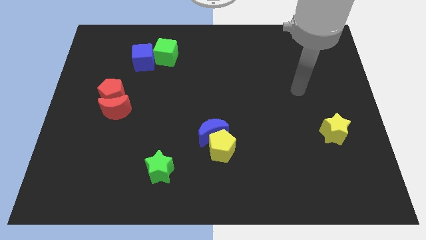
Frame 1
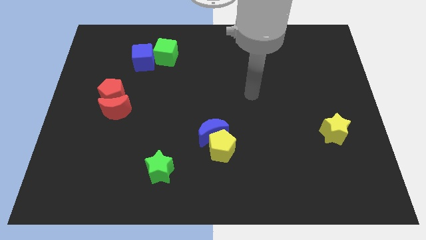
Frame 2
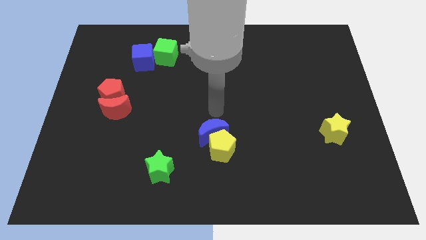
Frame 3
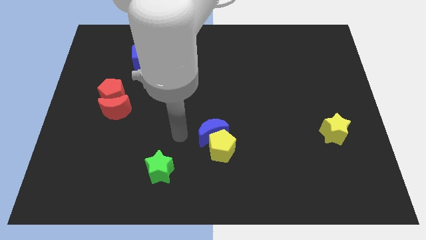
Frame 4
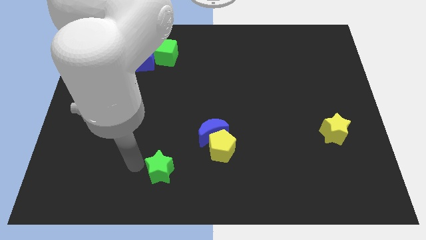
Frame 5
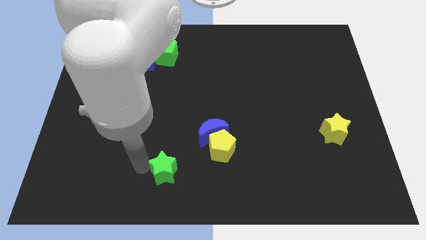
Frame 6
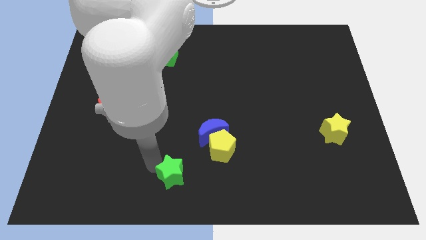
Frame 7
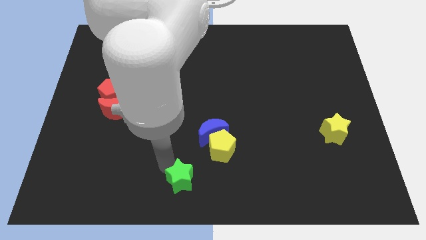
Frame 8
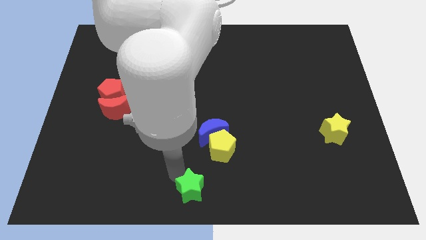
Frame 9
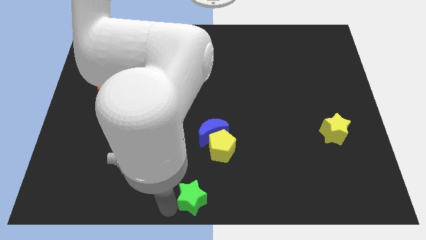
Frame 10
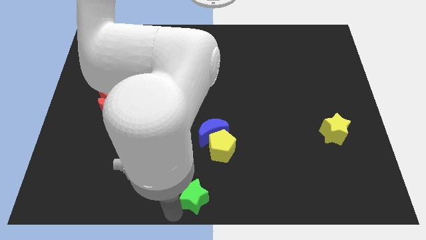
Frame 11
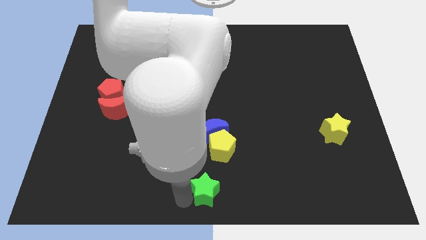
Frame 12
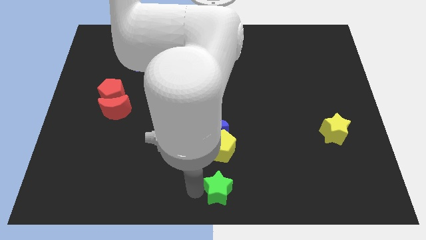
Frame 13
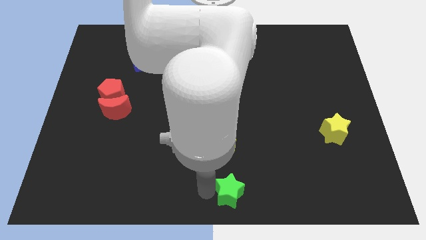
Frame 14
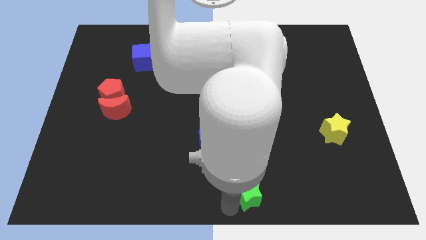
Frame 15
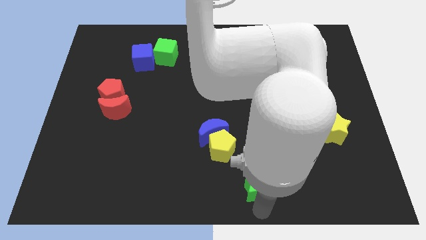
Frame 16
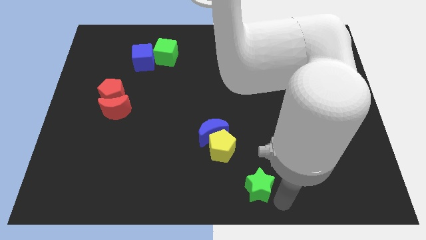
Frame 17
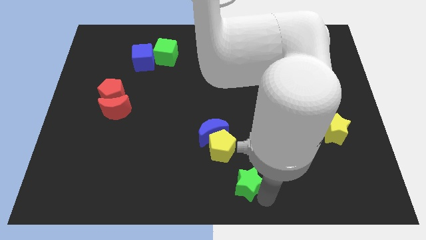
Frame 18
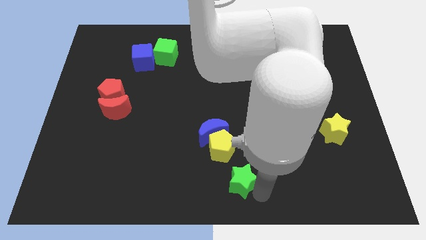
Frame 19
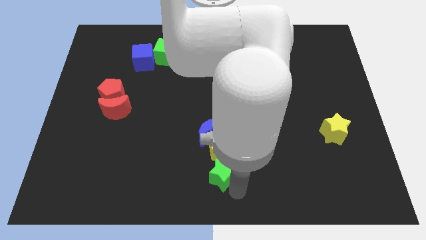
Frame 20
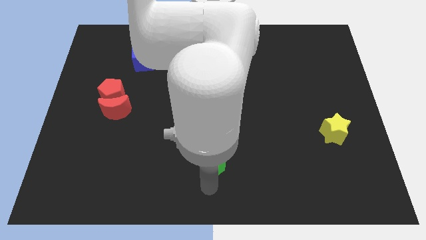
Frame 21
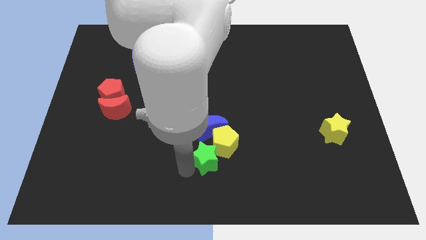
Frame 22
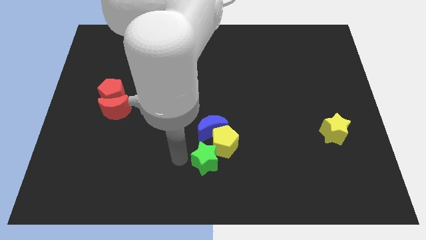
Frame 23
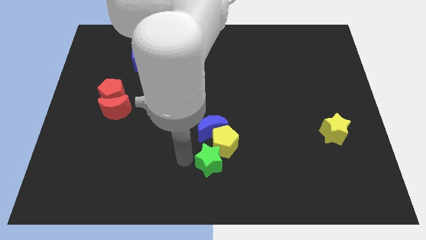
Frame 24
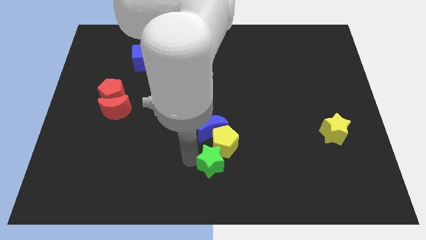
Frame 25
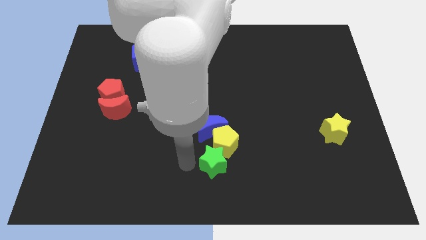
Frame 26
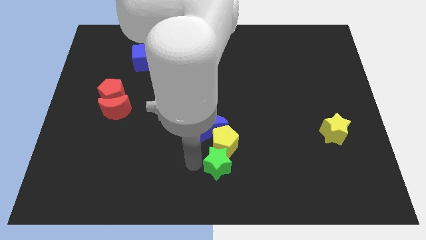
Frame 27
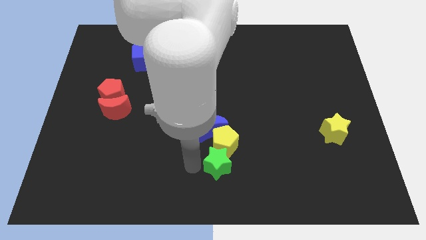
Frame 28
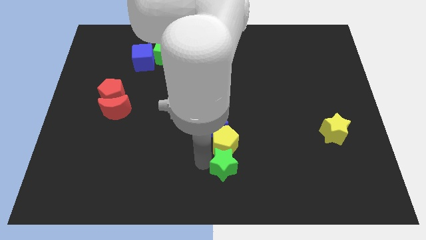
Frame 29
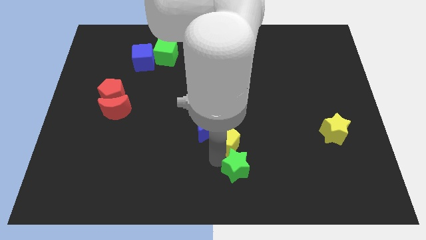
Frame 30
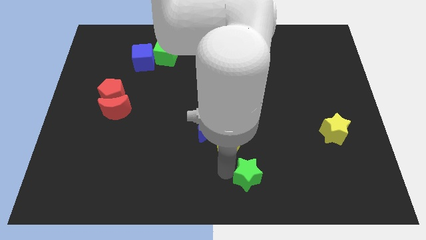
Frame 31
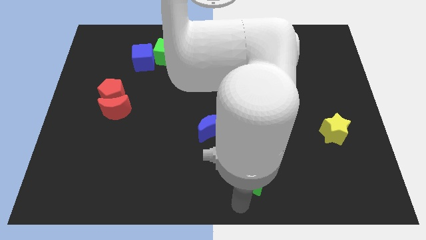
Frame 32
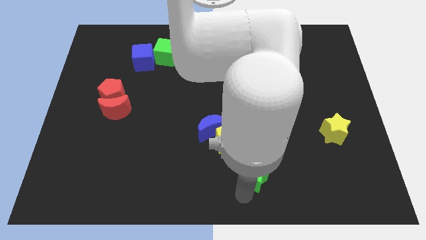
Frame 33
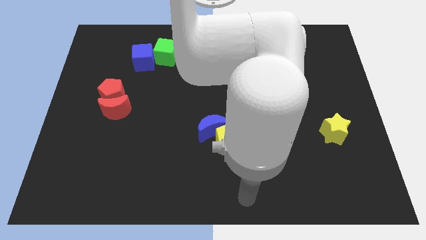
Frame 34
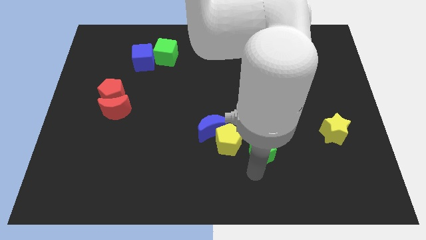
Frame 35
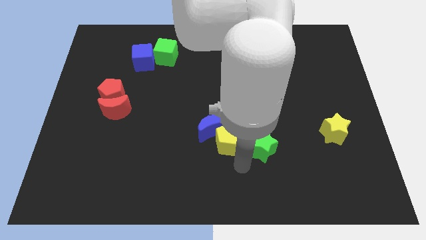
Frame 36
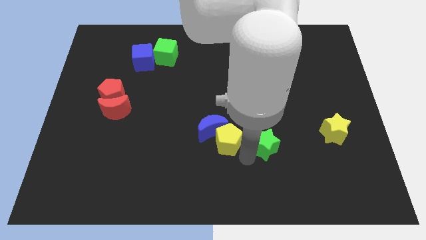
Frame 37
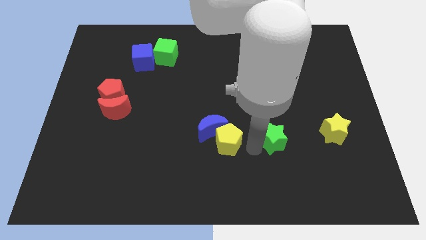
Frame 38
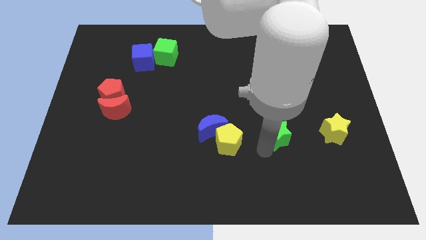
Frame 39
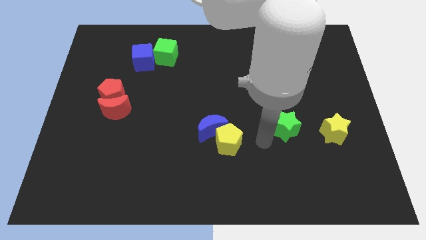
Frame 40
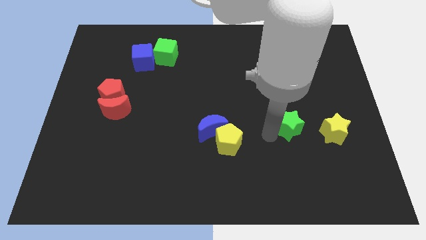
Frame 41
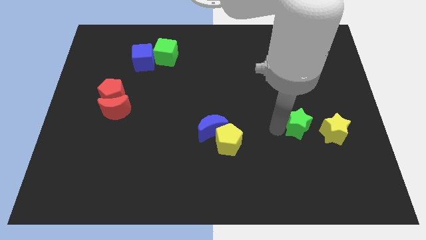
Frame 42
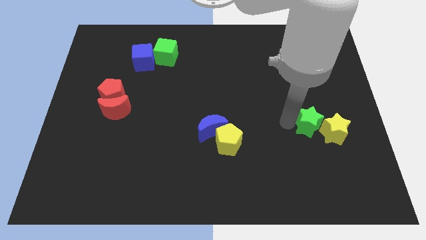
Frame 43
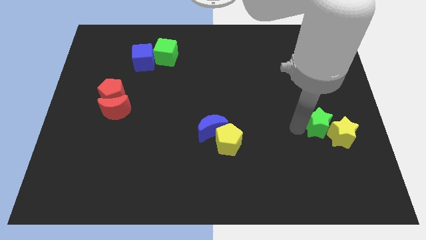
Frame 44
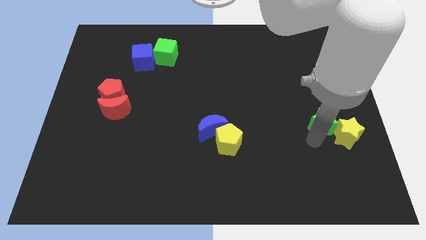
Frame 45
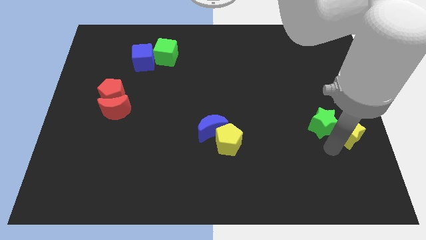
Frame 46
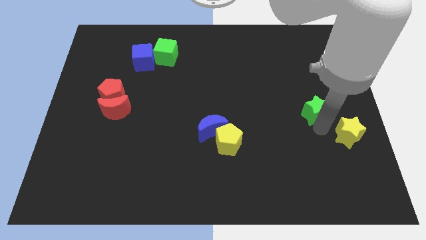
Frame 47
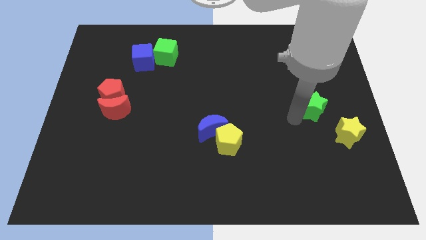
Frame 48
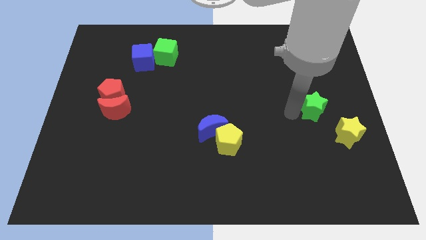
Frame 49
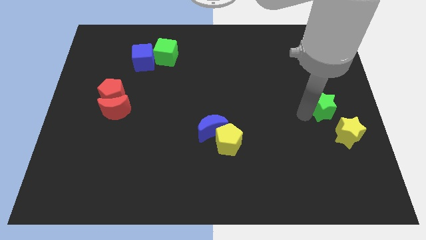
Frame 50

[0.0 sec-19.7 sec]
move the green star to the right side of the board

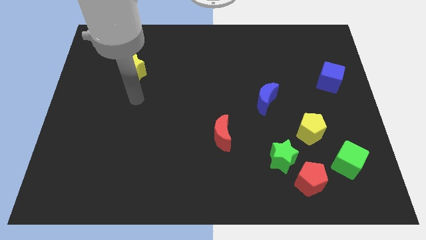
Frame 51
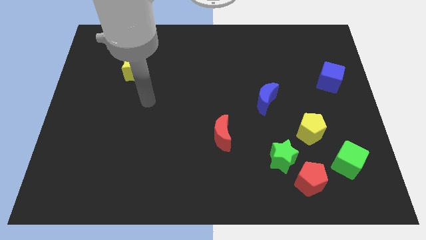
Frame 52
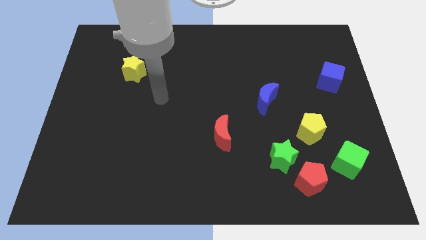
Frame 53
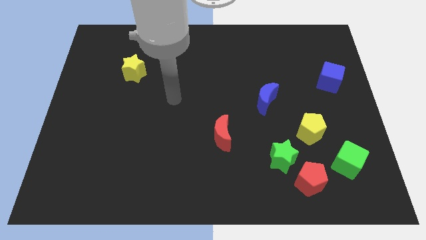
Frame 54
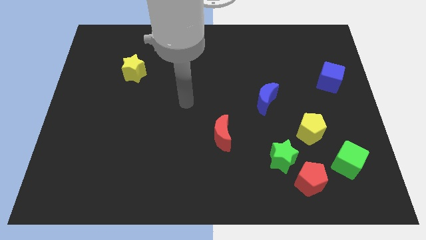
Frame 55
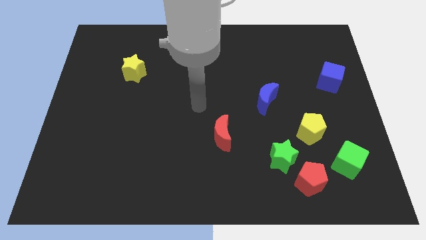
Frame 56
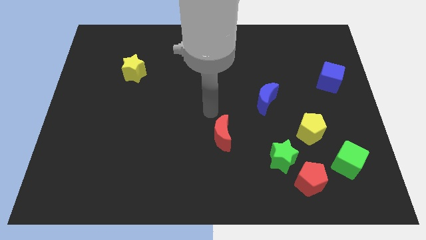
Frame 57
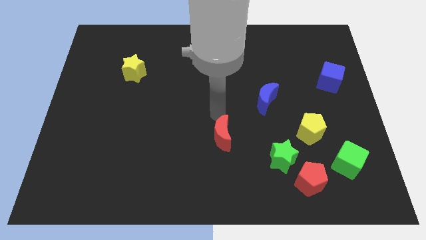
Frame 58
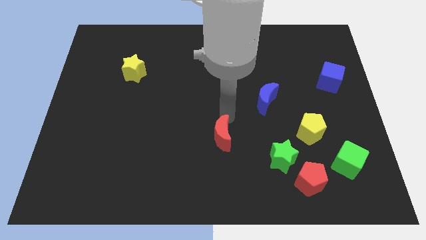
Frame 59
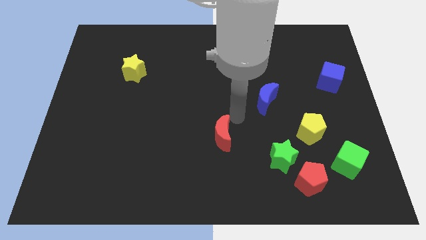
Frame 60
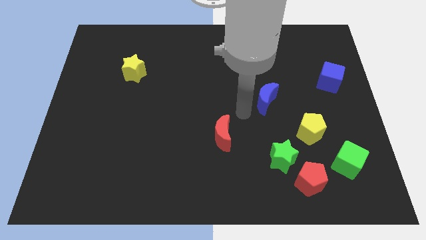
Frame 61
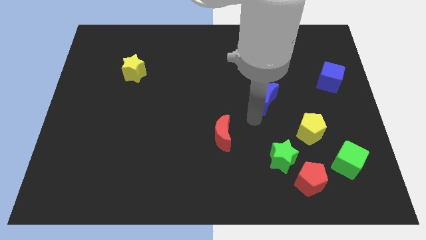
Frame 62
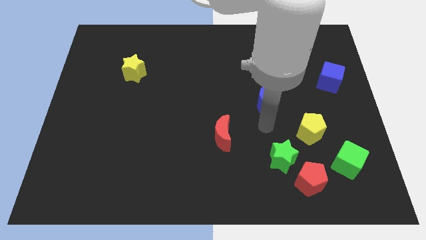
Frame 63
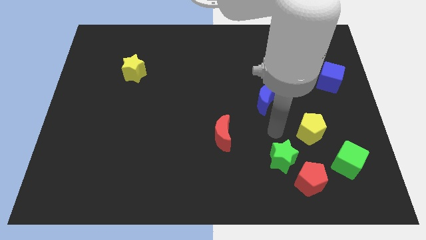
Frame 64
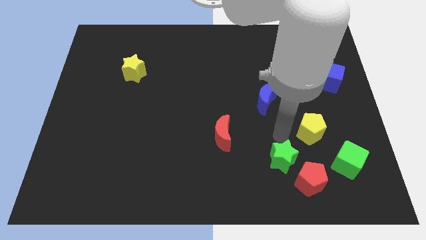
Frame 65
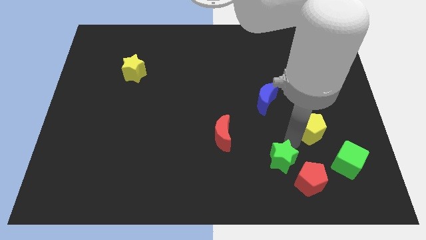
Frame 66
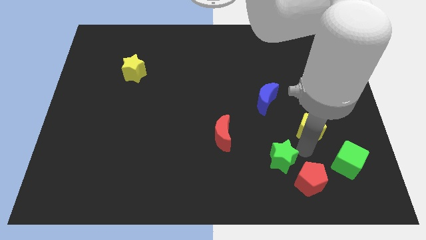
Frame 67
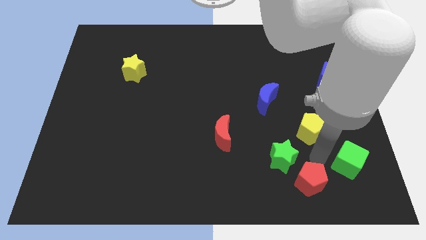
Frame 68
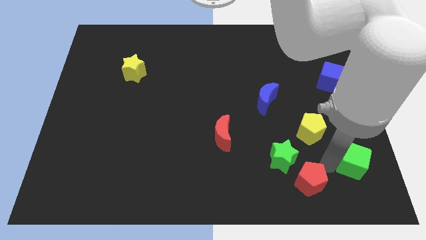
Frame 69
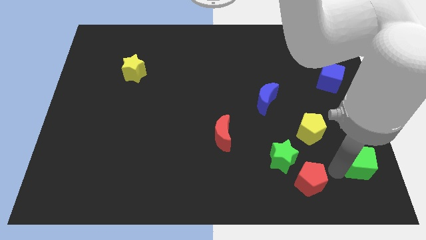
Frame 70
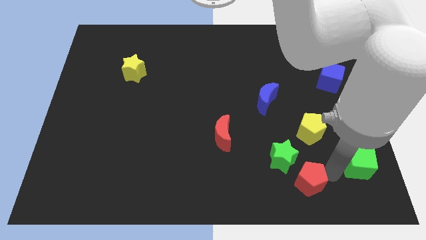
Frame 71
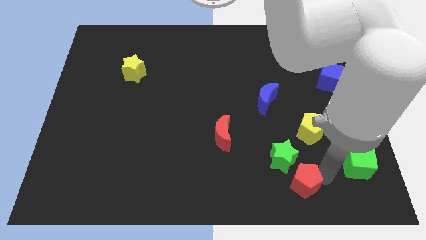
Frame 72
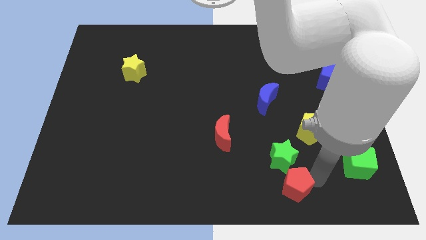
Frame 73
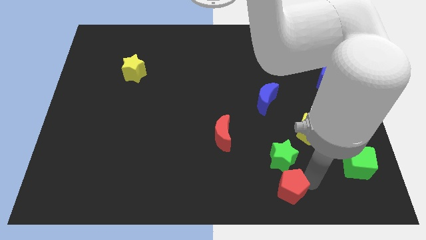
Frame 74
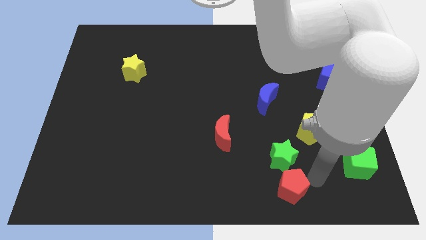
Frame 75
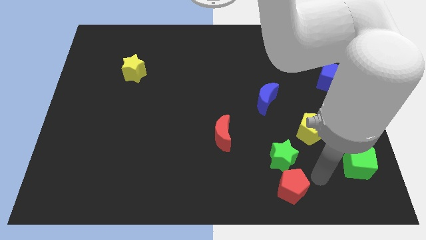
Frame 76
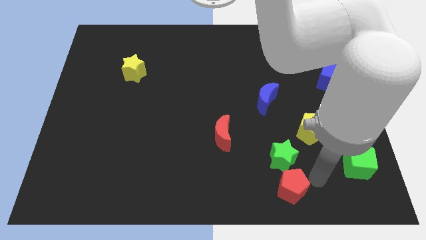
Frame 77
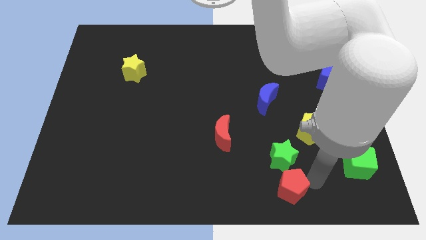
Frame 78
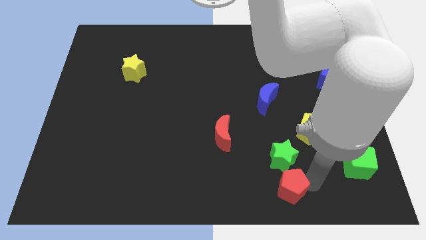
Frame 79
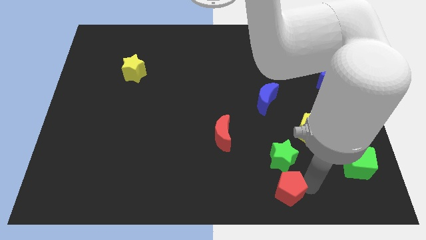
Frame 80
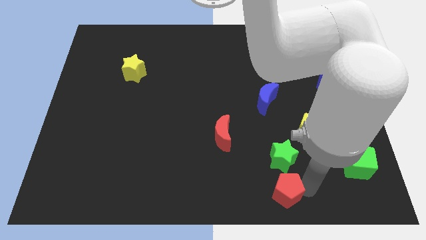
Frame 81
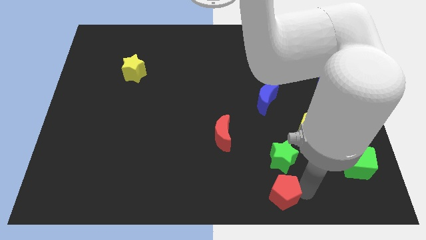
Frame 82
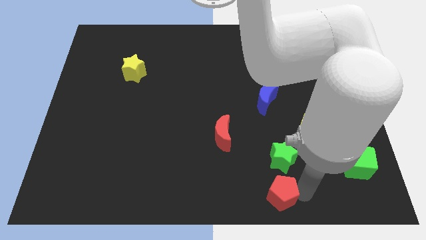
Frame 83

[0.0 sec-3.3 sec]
move the red pentagon to the bottom side
